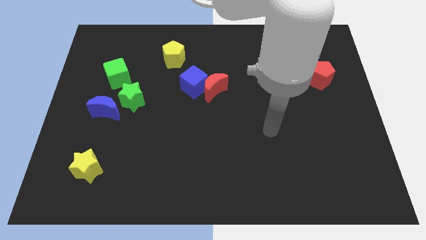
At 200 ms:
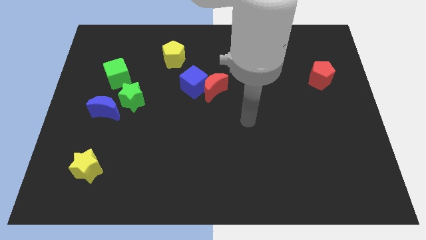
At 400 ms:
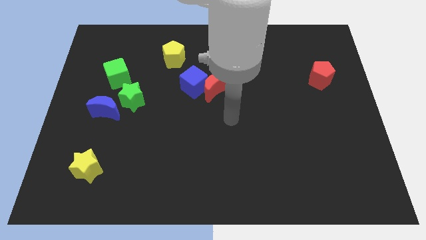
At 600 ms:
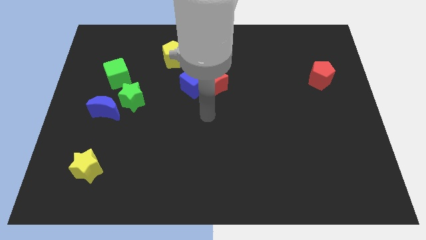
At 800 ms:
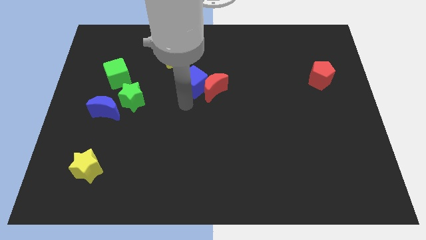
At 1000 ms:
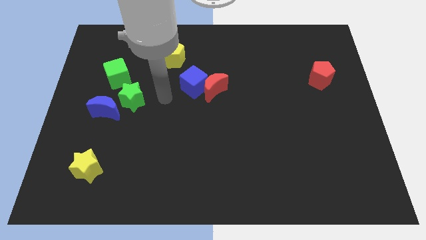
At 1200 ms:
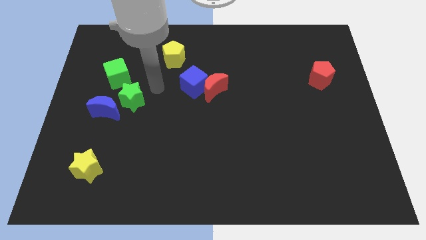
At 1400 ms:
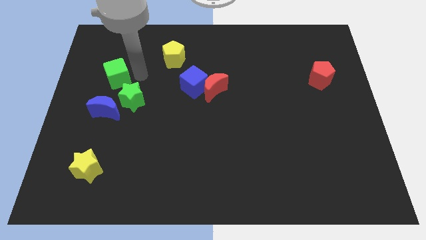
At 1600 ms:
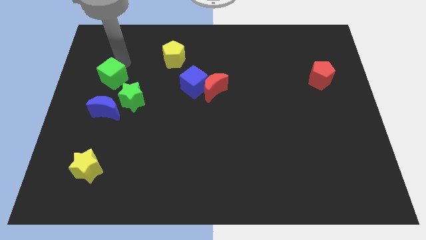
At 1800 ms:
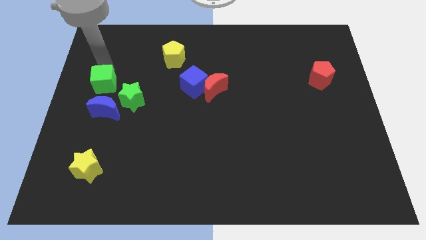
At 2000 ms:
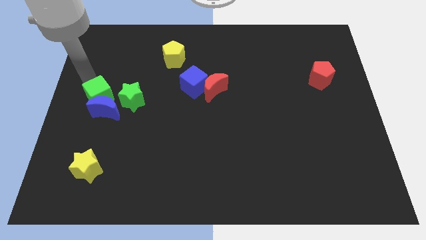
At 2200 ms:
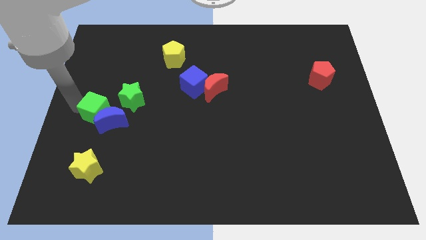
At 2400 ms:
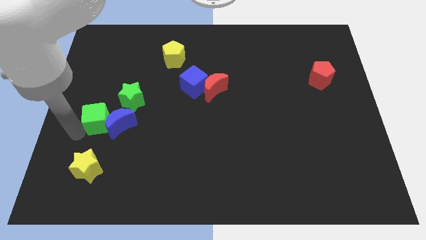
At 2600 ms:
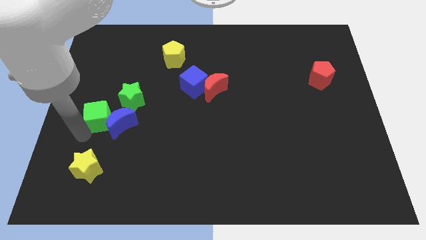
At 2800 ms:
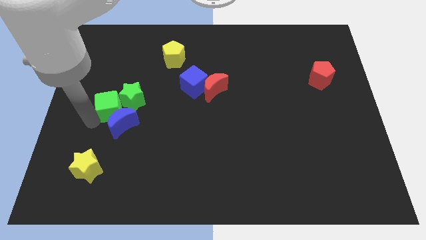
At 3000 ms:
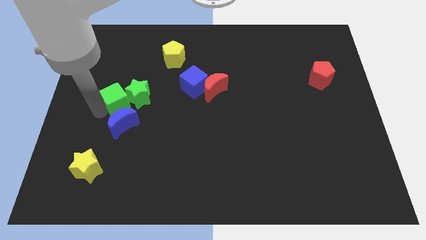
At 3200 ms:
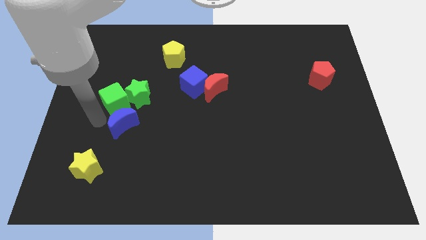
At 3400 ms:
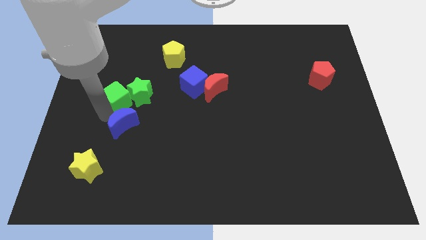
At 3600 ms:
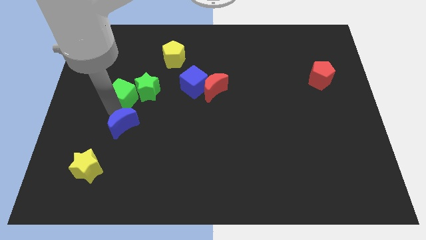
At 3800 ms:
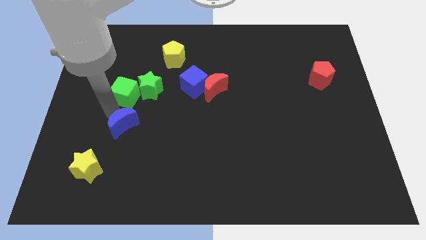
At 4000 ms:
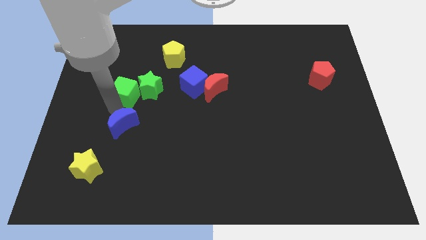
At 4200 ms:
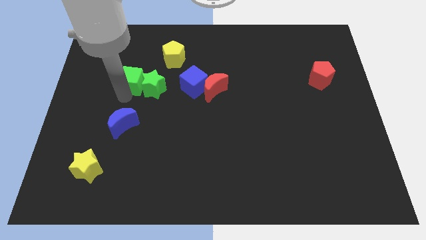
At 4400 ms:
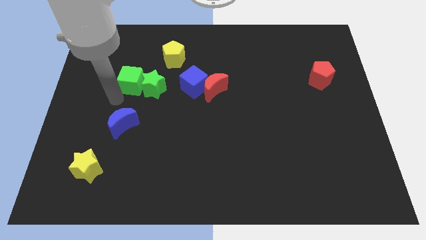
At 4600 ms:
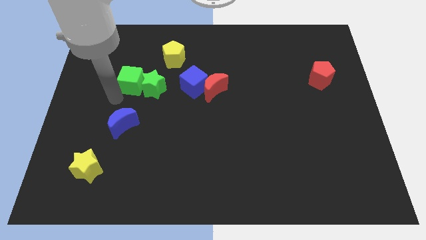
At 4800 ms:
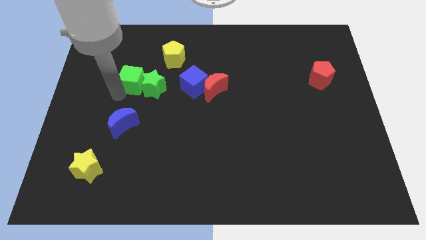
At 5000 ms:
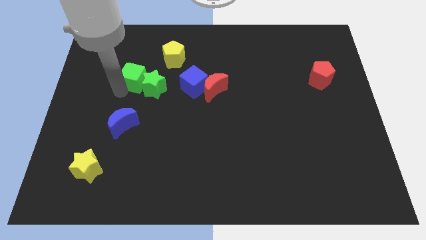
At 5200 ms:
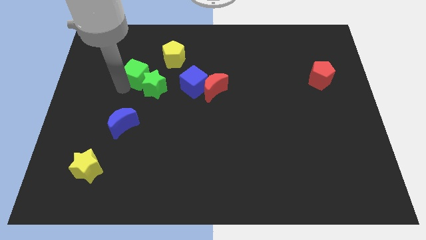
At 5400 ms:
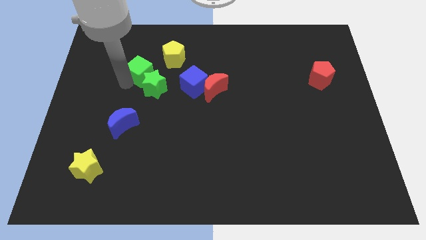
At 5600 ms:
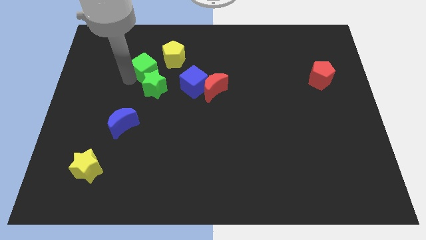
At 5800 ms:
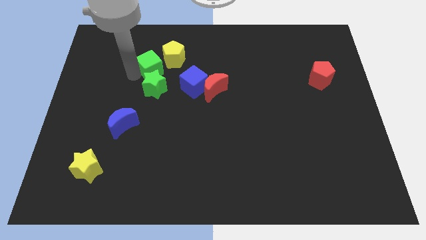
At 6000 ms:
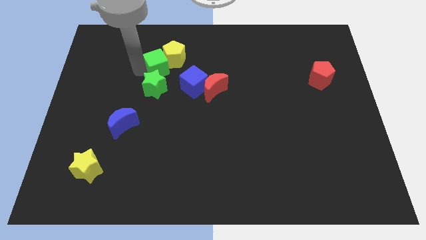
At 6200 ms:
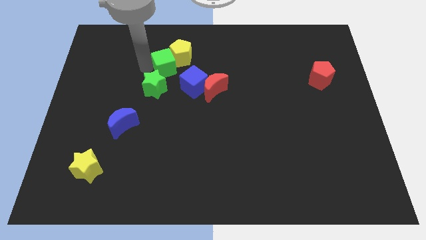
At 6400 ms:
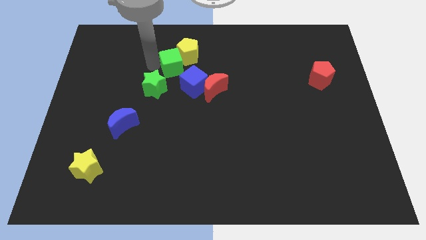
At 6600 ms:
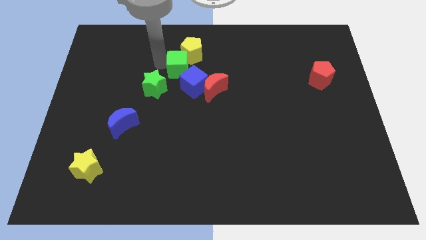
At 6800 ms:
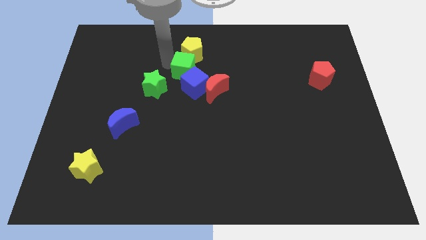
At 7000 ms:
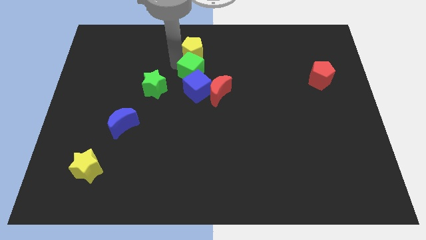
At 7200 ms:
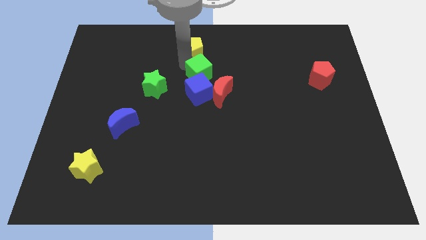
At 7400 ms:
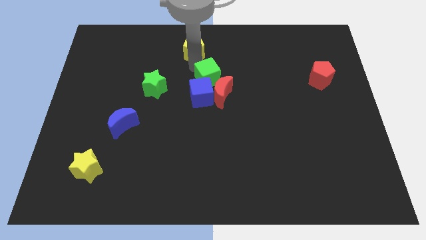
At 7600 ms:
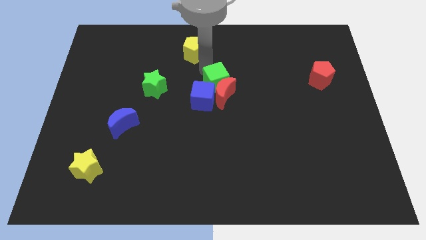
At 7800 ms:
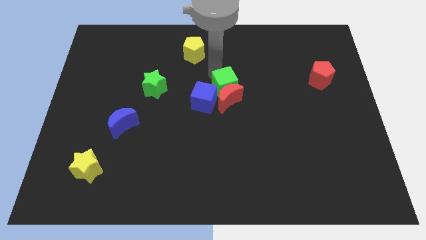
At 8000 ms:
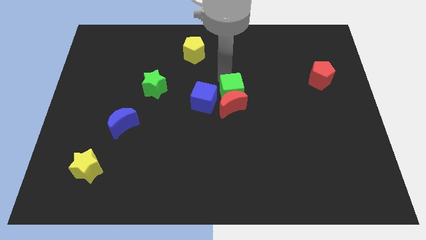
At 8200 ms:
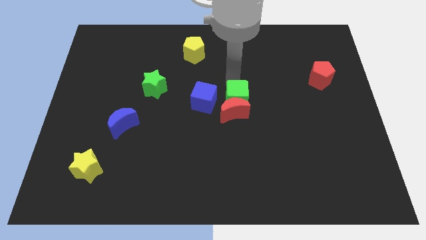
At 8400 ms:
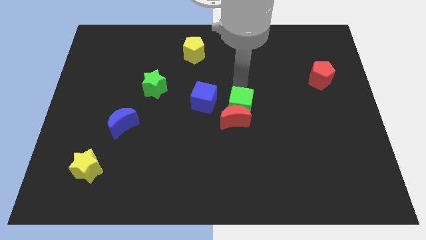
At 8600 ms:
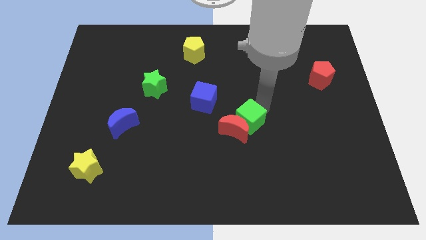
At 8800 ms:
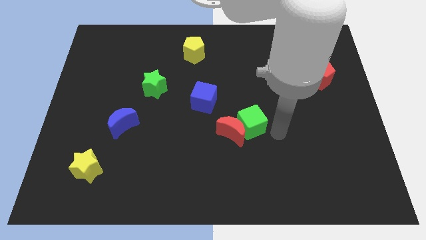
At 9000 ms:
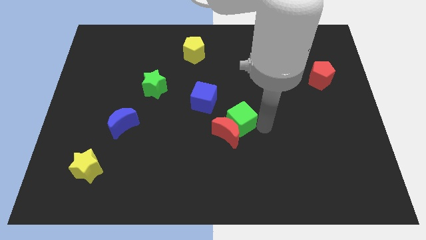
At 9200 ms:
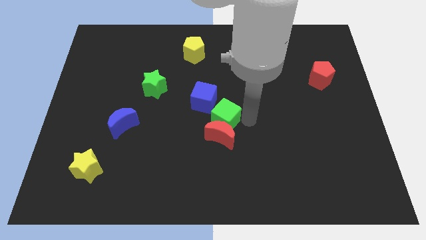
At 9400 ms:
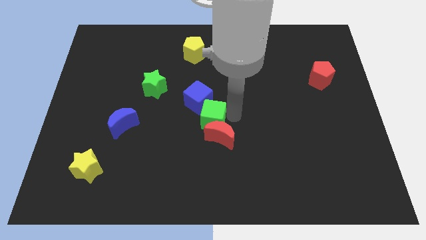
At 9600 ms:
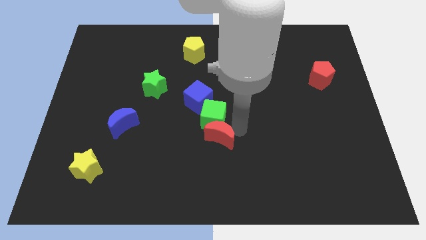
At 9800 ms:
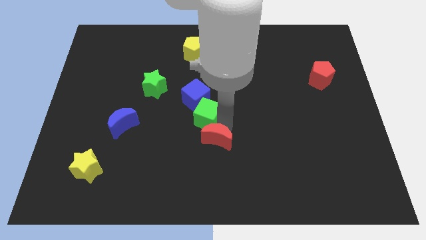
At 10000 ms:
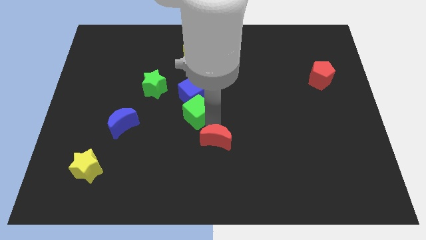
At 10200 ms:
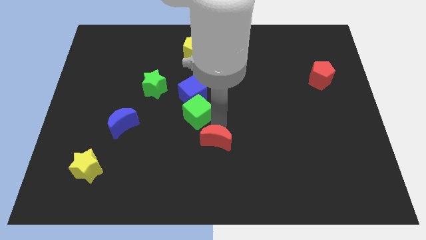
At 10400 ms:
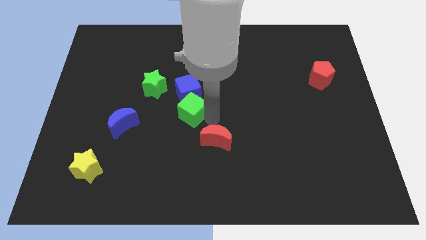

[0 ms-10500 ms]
move the green cube diagonally down and to the right of the green star

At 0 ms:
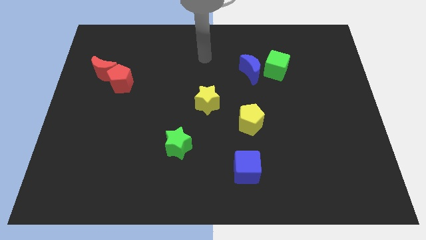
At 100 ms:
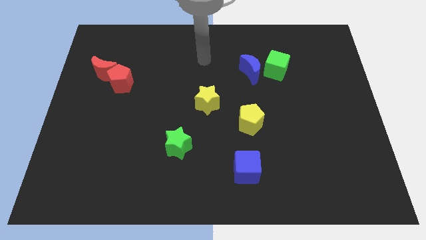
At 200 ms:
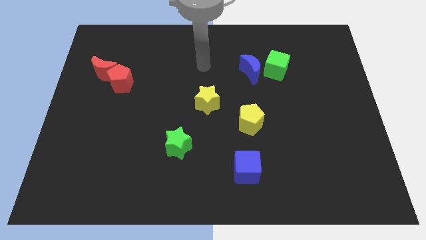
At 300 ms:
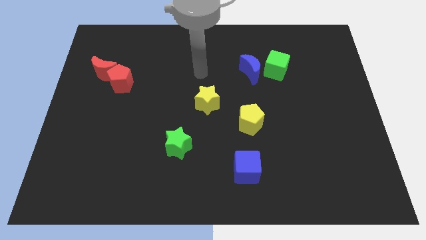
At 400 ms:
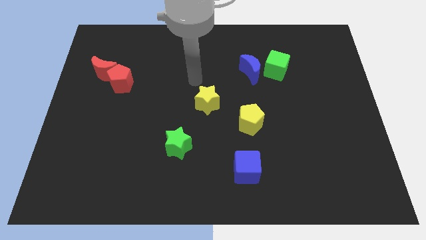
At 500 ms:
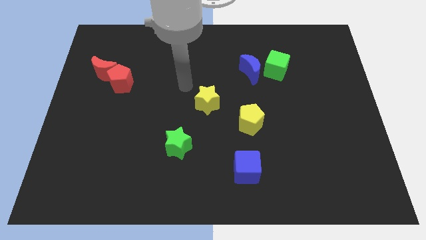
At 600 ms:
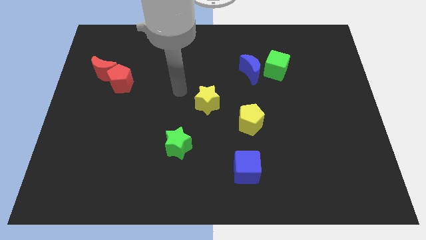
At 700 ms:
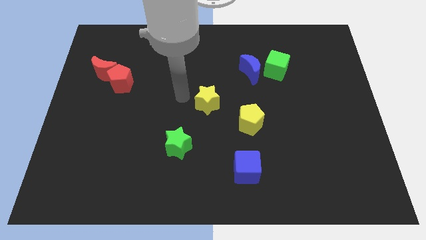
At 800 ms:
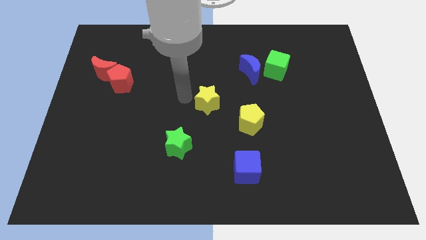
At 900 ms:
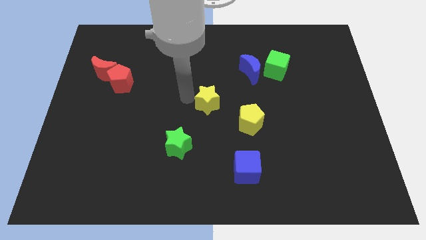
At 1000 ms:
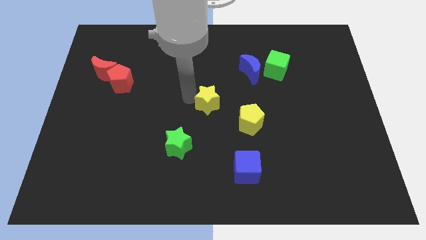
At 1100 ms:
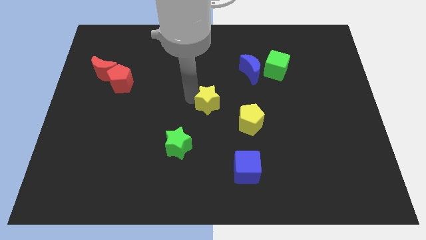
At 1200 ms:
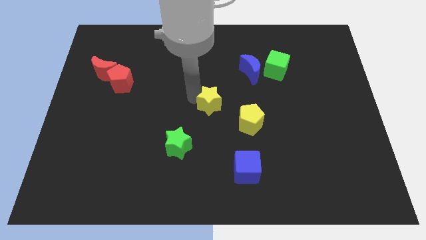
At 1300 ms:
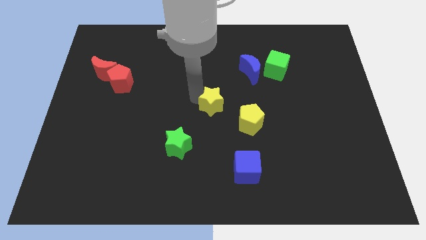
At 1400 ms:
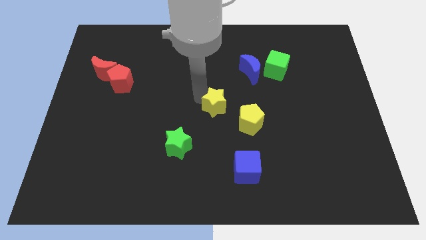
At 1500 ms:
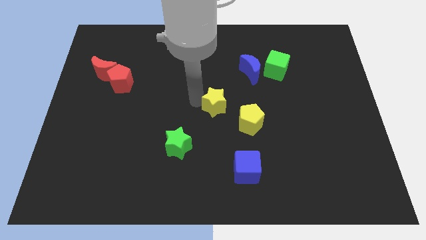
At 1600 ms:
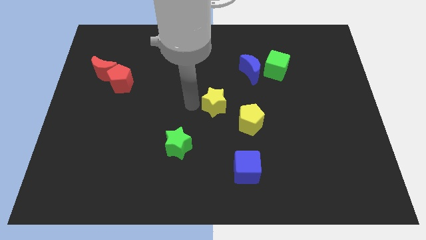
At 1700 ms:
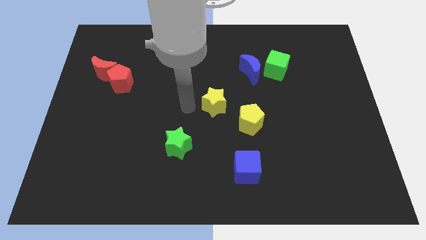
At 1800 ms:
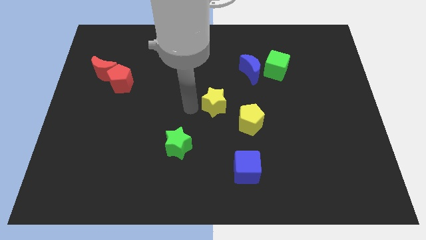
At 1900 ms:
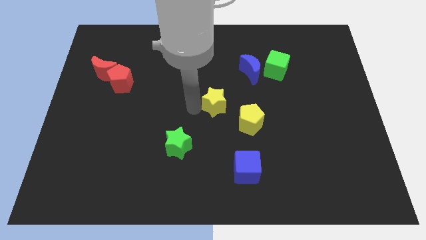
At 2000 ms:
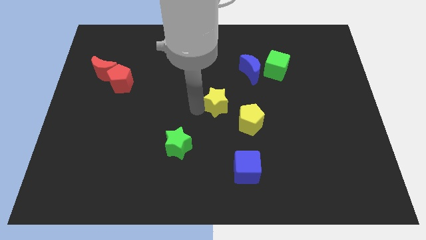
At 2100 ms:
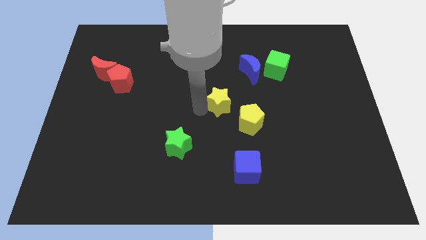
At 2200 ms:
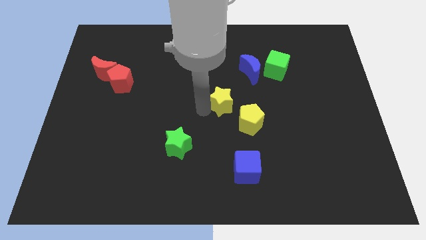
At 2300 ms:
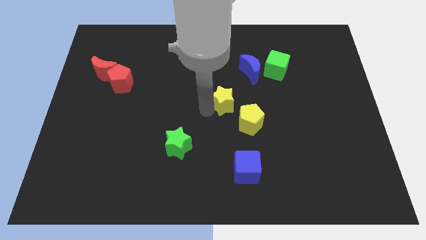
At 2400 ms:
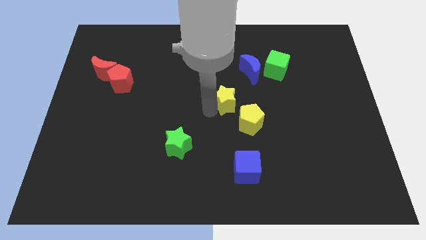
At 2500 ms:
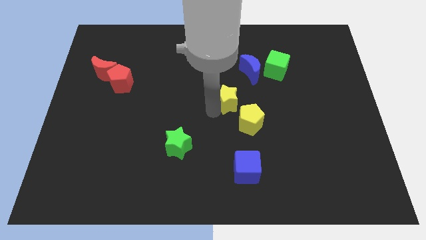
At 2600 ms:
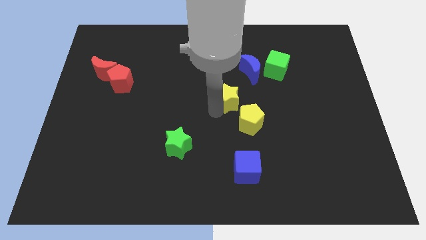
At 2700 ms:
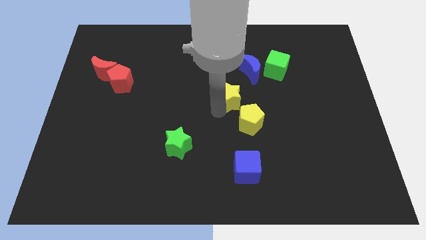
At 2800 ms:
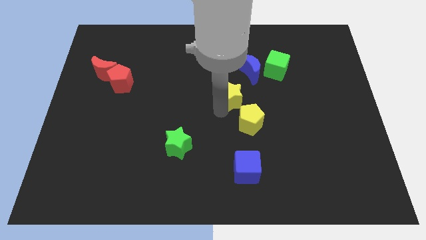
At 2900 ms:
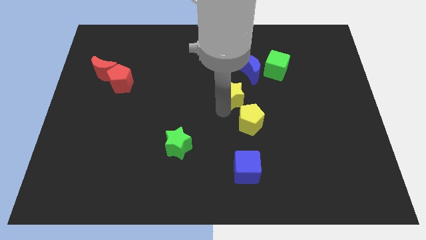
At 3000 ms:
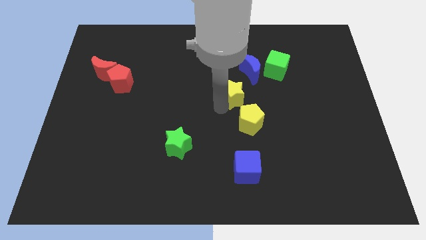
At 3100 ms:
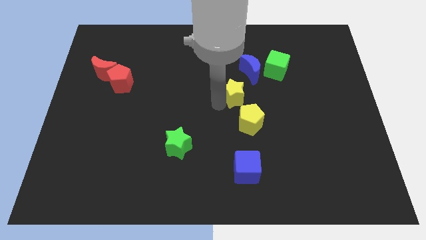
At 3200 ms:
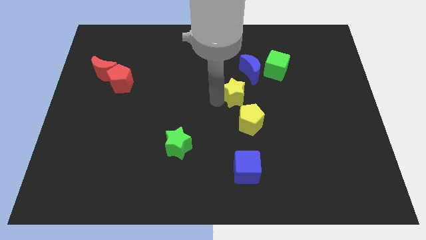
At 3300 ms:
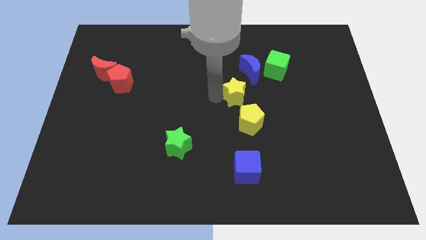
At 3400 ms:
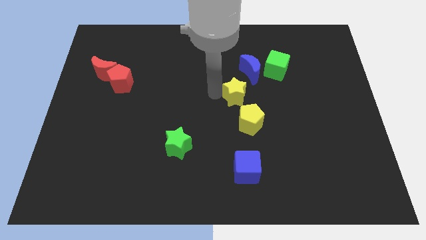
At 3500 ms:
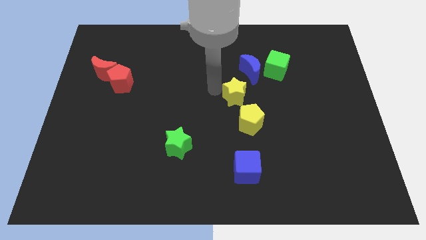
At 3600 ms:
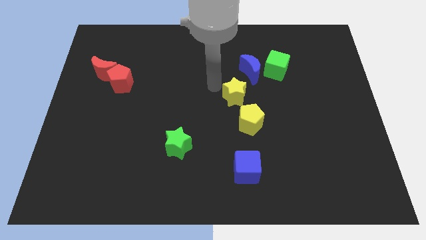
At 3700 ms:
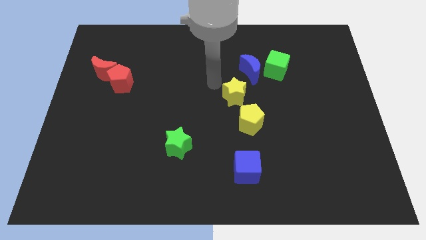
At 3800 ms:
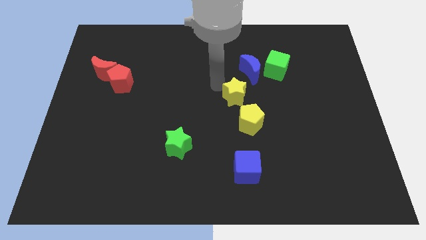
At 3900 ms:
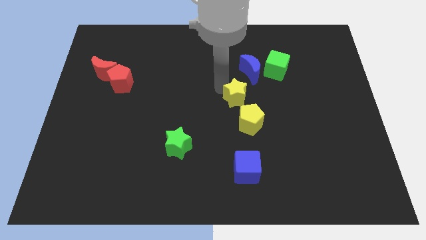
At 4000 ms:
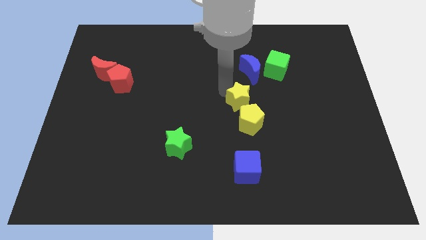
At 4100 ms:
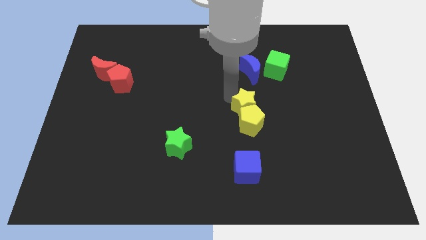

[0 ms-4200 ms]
slide the yellow star to the top right of the yellow pentagon
